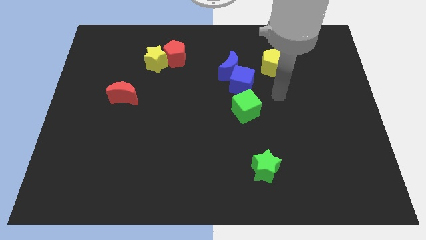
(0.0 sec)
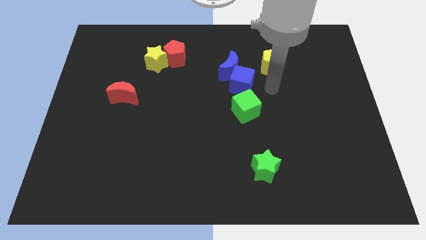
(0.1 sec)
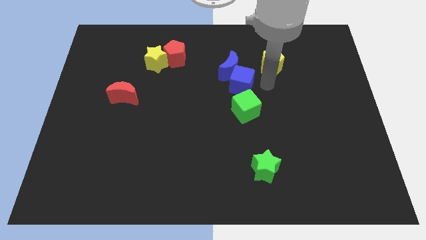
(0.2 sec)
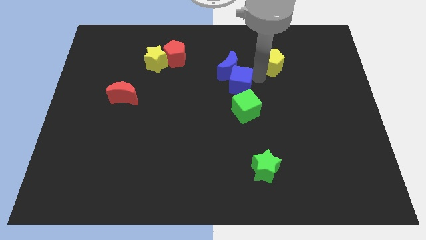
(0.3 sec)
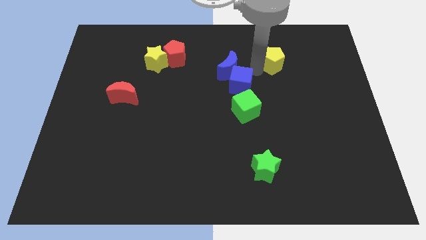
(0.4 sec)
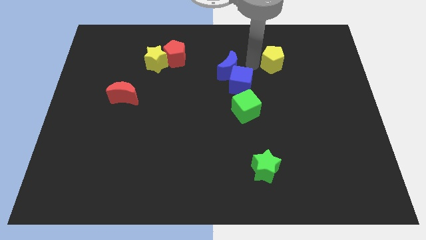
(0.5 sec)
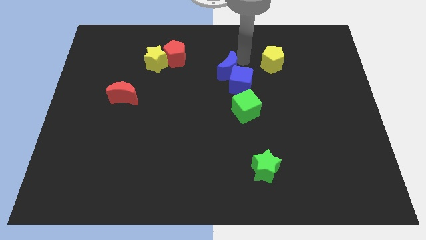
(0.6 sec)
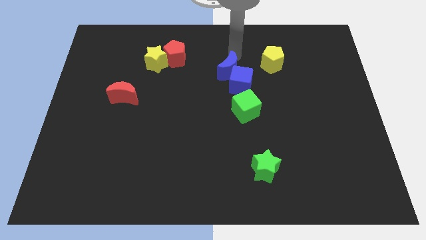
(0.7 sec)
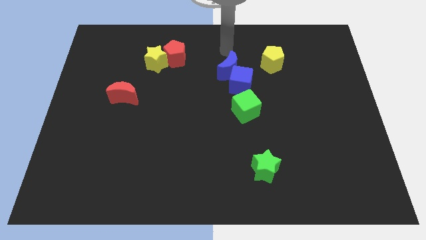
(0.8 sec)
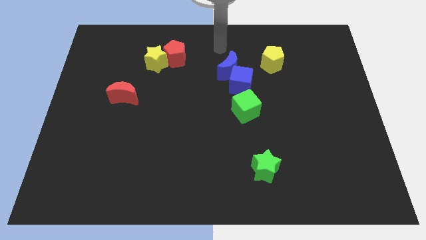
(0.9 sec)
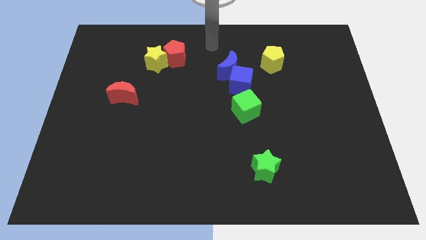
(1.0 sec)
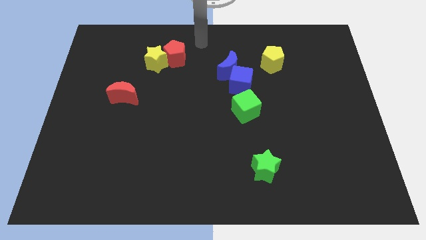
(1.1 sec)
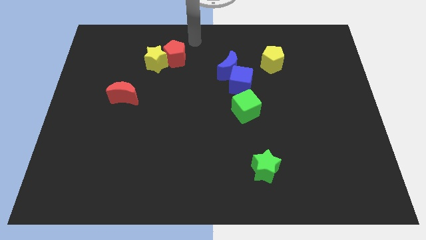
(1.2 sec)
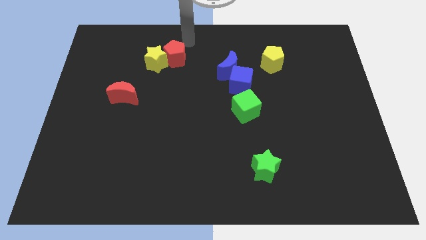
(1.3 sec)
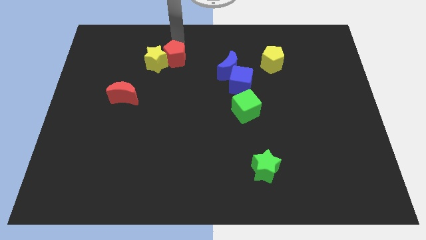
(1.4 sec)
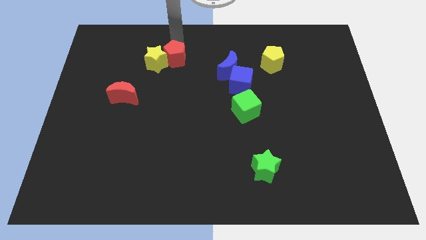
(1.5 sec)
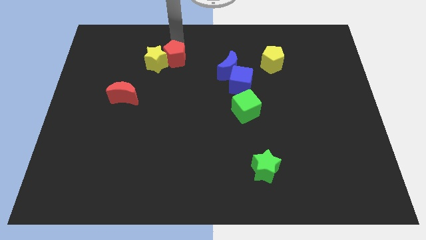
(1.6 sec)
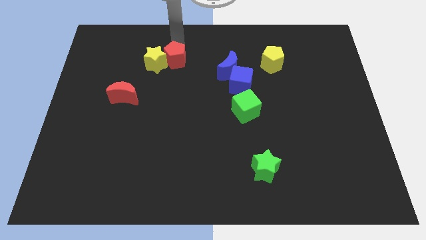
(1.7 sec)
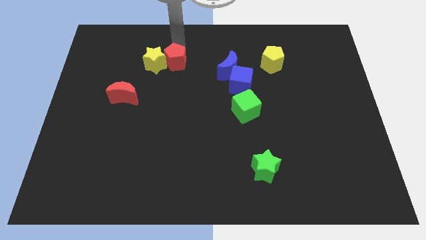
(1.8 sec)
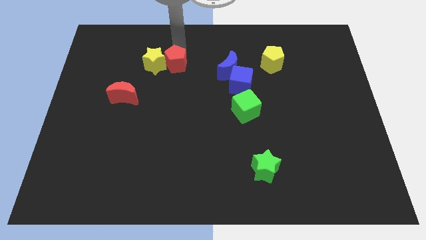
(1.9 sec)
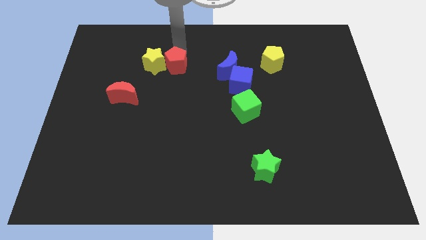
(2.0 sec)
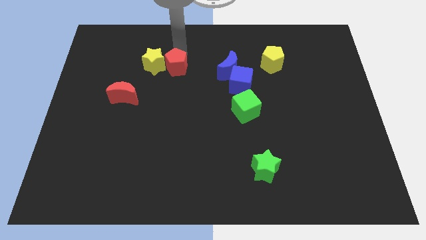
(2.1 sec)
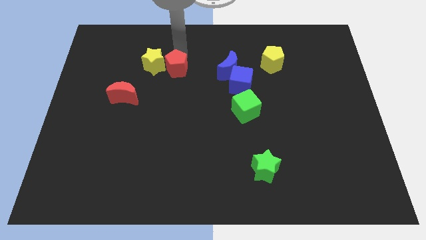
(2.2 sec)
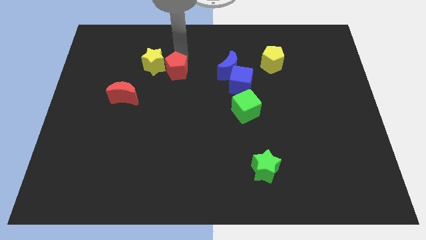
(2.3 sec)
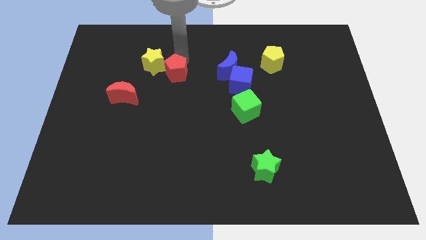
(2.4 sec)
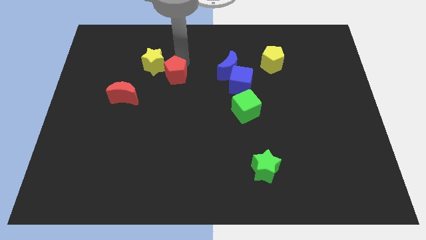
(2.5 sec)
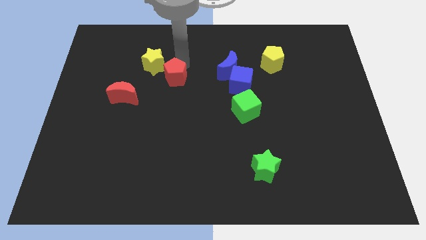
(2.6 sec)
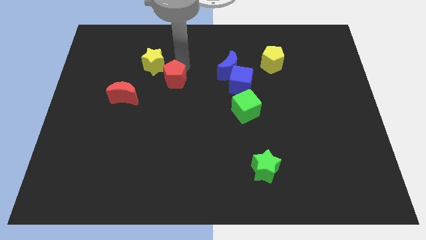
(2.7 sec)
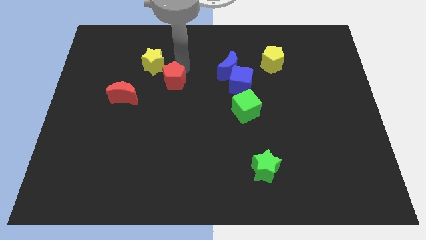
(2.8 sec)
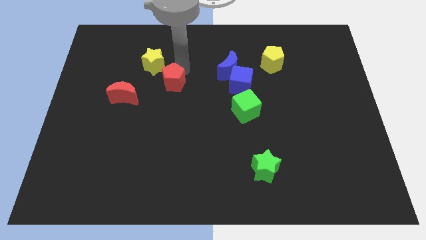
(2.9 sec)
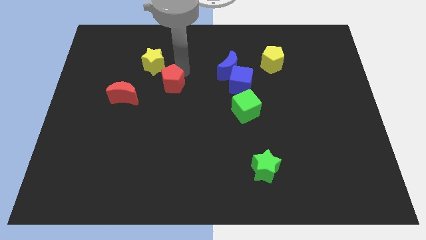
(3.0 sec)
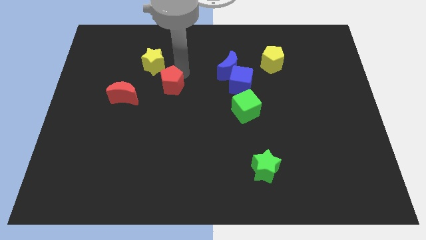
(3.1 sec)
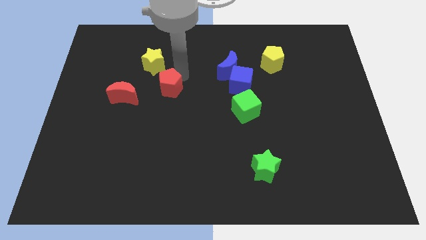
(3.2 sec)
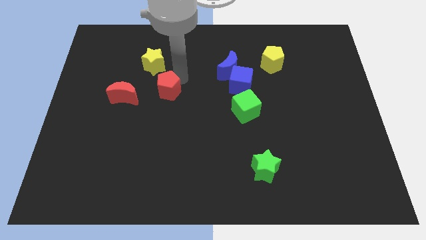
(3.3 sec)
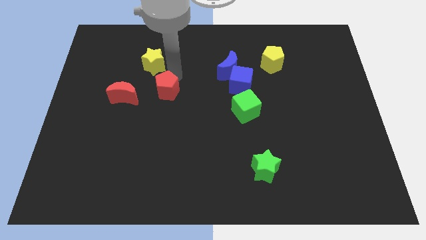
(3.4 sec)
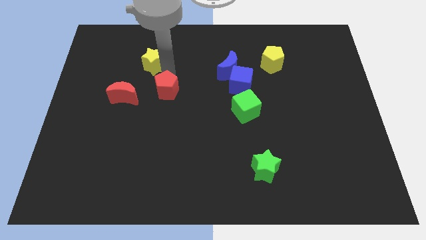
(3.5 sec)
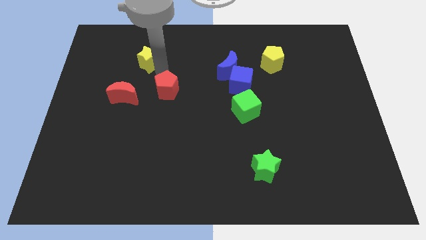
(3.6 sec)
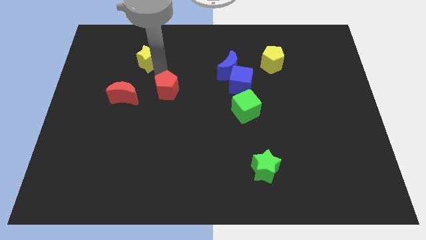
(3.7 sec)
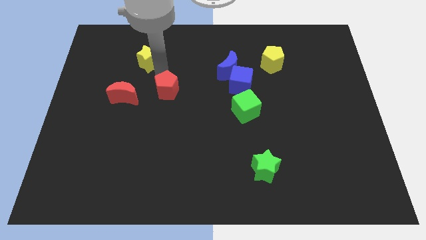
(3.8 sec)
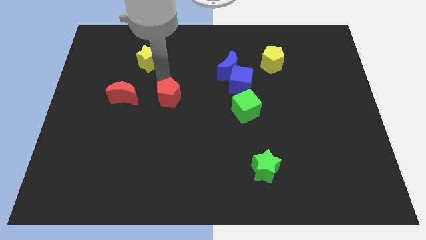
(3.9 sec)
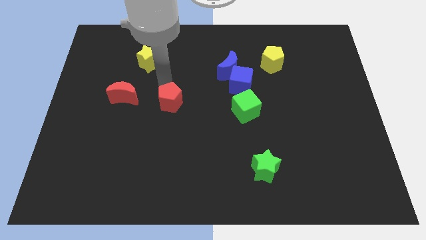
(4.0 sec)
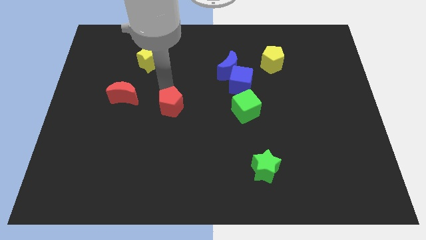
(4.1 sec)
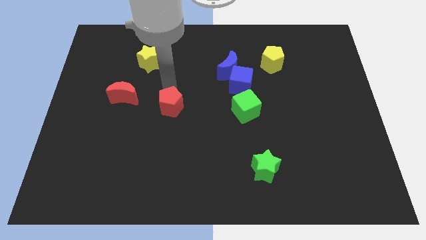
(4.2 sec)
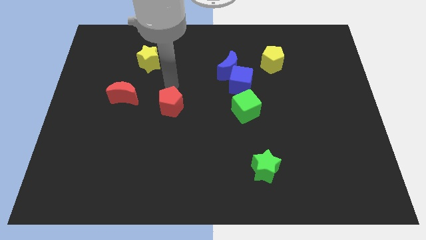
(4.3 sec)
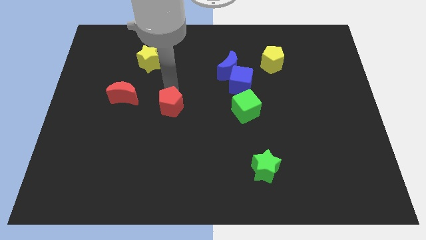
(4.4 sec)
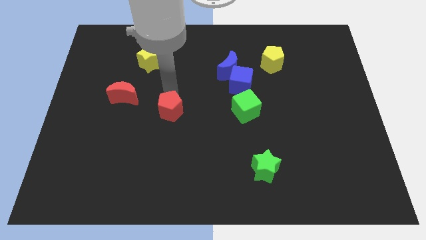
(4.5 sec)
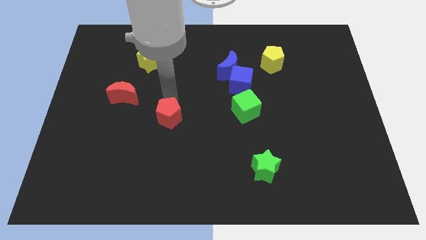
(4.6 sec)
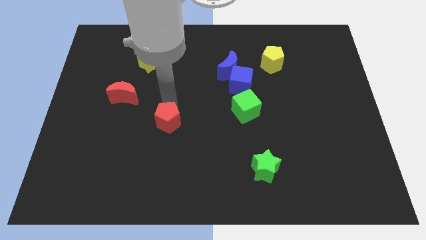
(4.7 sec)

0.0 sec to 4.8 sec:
push the red pentagon downwards

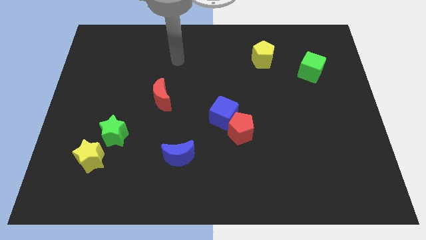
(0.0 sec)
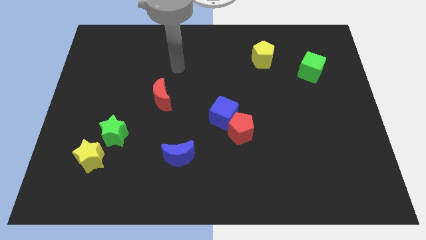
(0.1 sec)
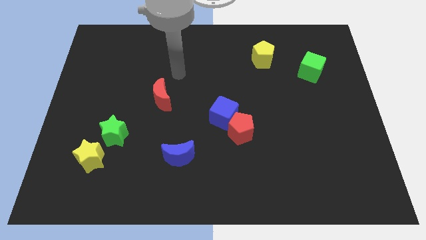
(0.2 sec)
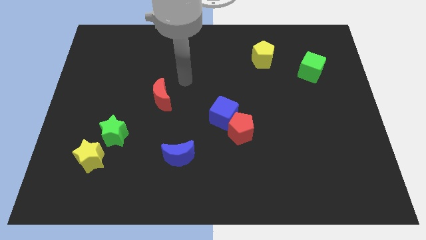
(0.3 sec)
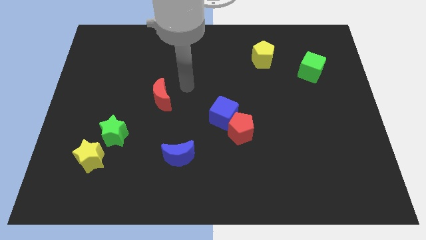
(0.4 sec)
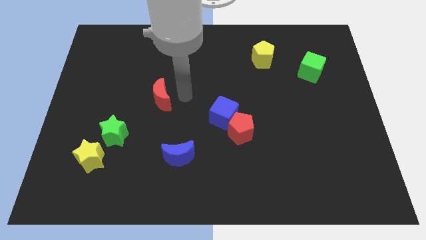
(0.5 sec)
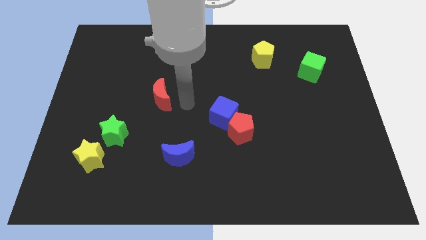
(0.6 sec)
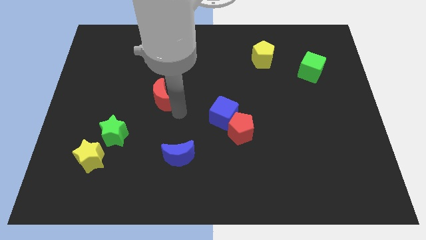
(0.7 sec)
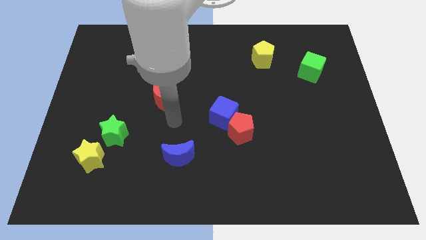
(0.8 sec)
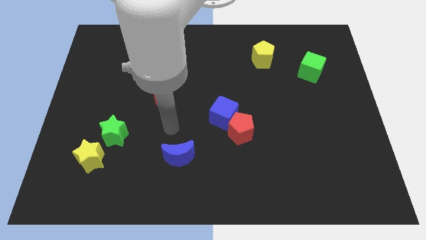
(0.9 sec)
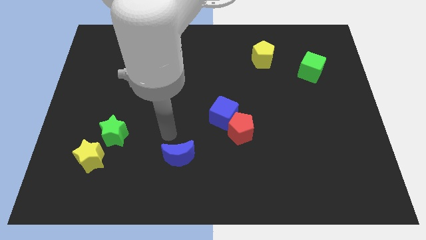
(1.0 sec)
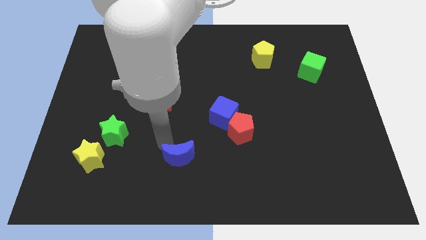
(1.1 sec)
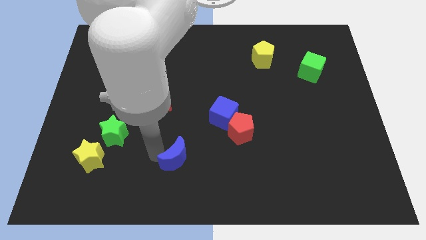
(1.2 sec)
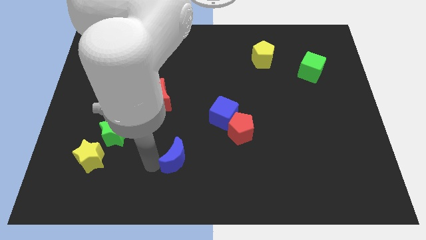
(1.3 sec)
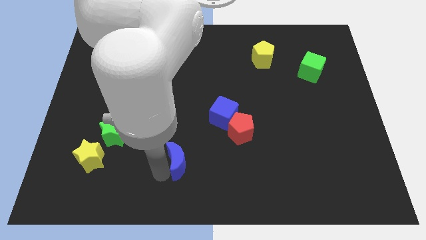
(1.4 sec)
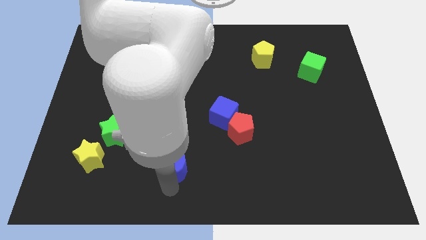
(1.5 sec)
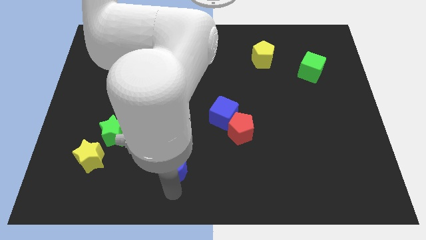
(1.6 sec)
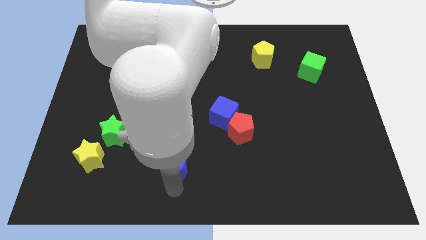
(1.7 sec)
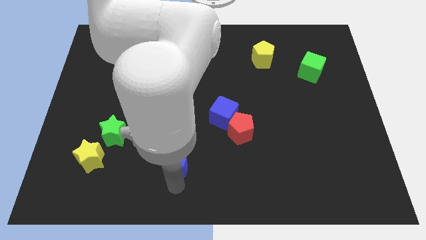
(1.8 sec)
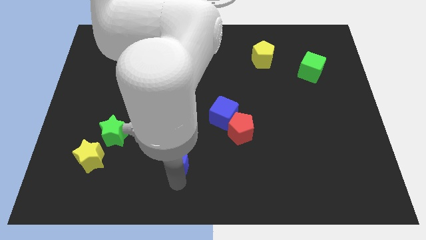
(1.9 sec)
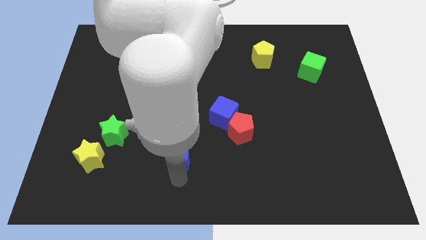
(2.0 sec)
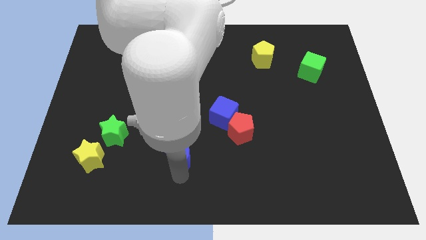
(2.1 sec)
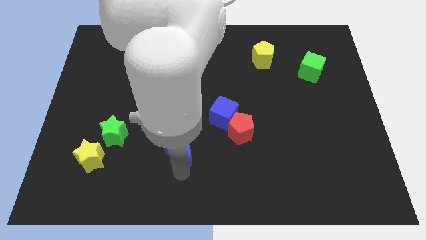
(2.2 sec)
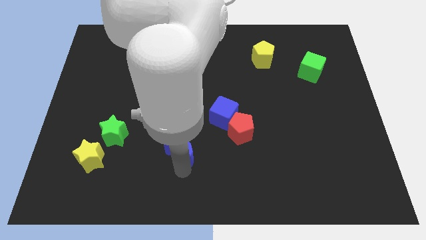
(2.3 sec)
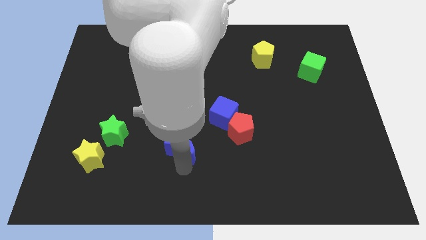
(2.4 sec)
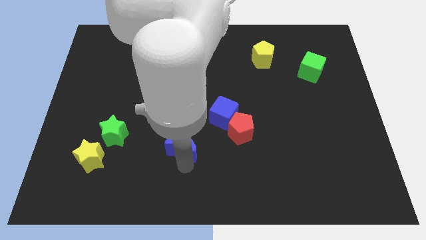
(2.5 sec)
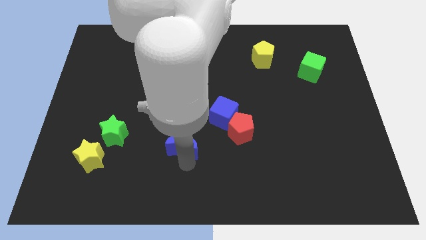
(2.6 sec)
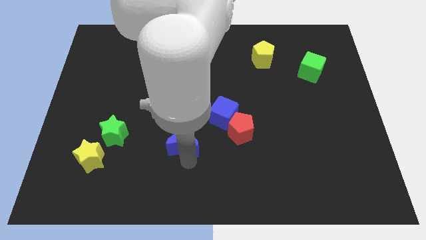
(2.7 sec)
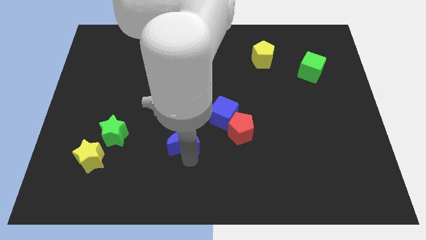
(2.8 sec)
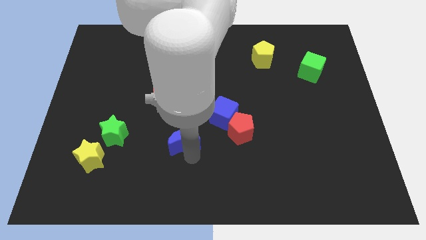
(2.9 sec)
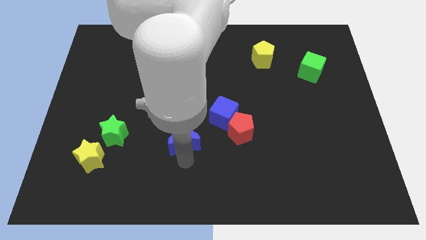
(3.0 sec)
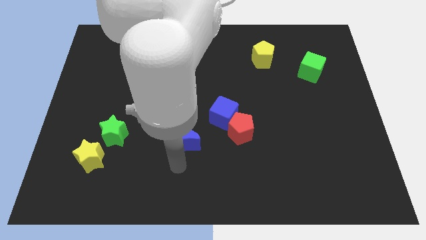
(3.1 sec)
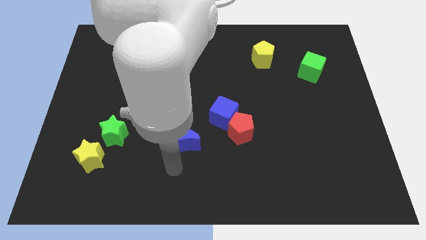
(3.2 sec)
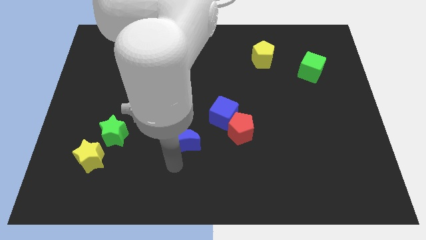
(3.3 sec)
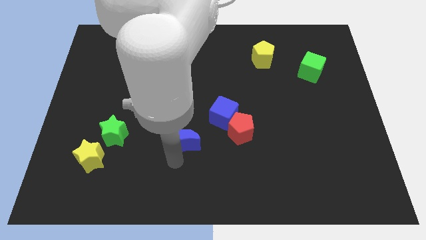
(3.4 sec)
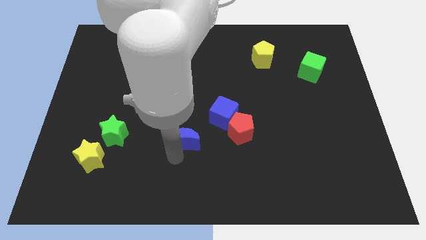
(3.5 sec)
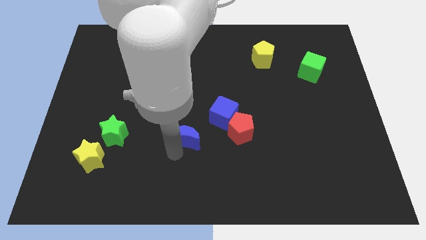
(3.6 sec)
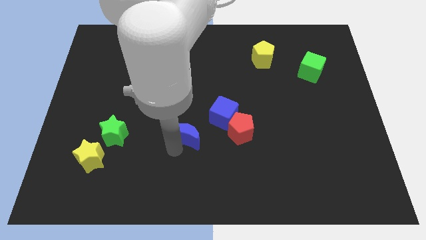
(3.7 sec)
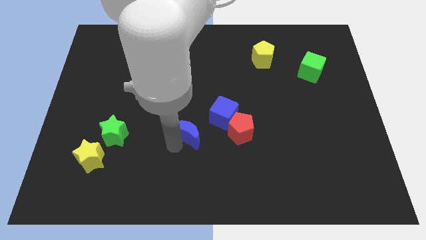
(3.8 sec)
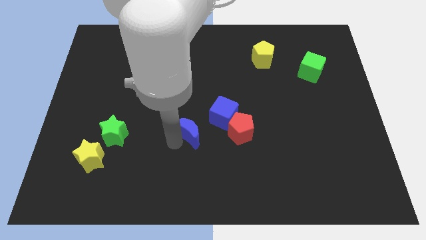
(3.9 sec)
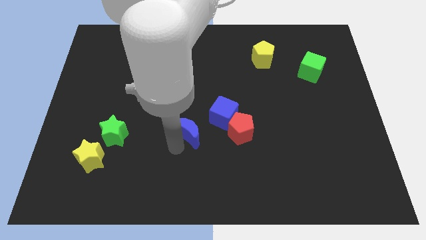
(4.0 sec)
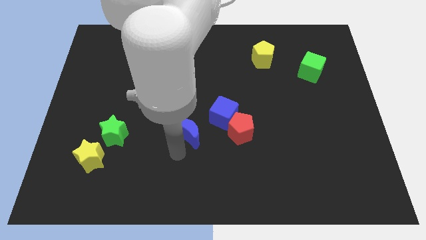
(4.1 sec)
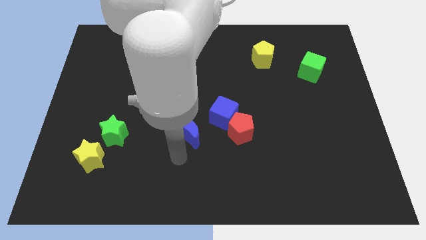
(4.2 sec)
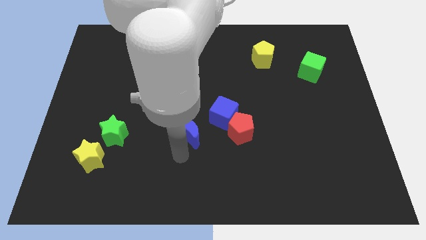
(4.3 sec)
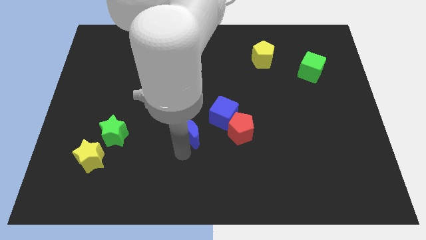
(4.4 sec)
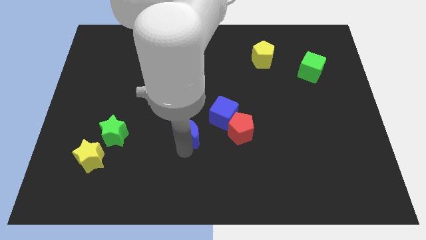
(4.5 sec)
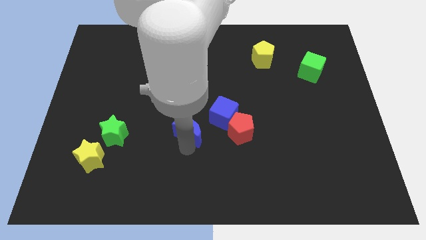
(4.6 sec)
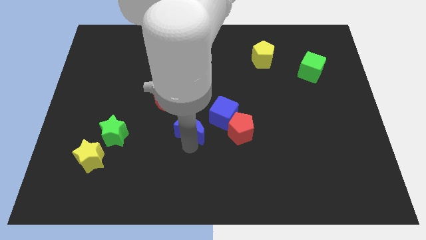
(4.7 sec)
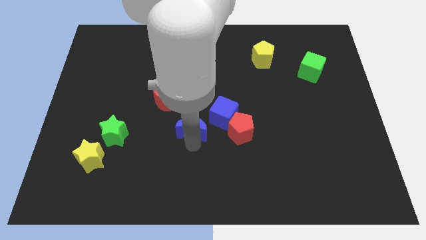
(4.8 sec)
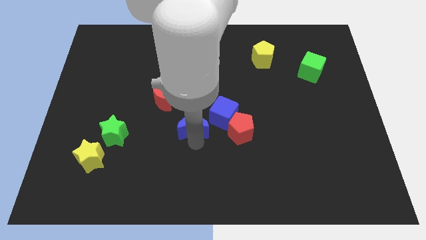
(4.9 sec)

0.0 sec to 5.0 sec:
move the blue moon a bit up and to the right
